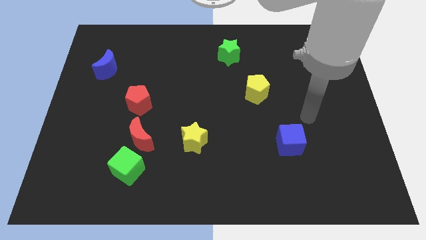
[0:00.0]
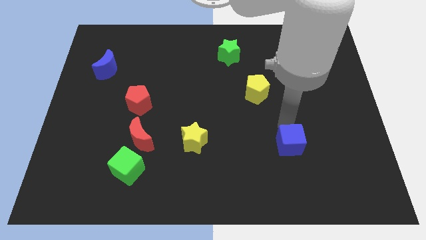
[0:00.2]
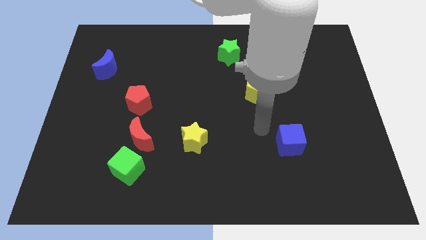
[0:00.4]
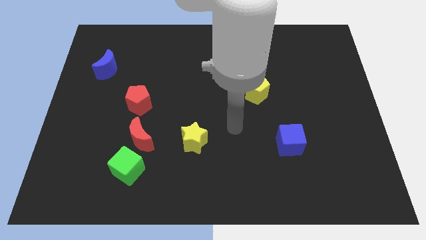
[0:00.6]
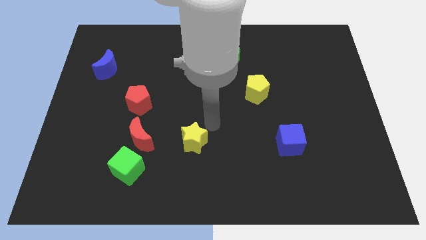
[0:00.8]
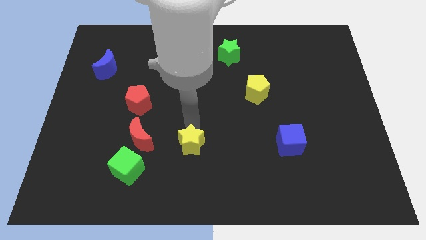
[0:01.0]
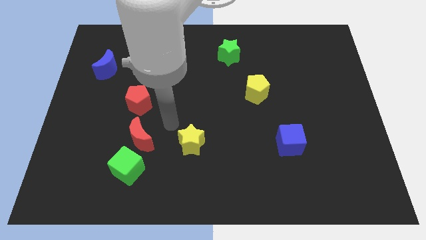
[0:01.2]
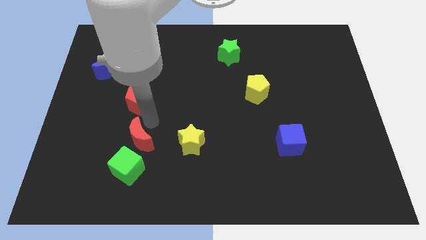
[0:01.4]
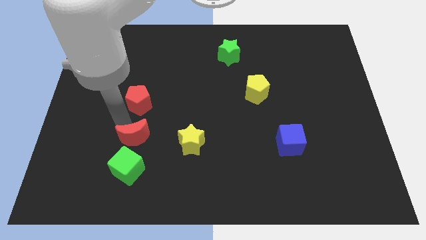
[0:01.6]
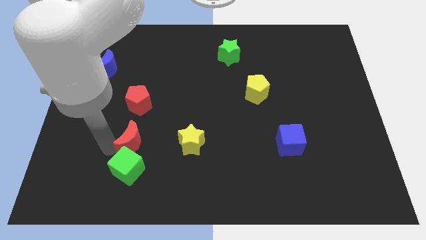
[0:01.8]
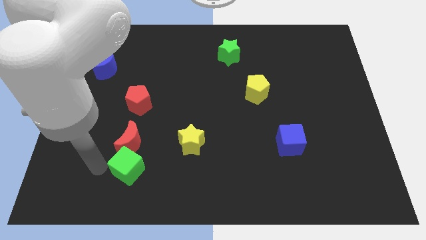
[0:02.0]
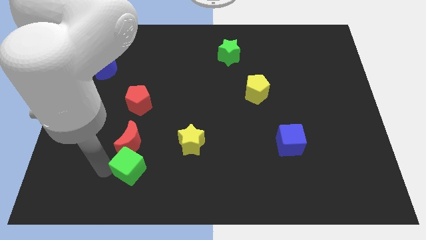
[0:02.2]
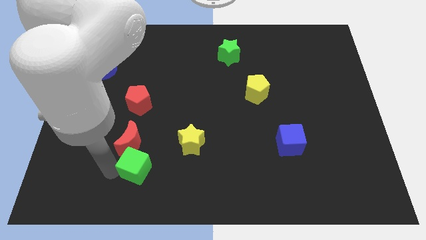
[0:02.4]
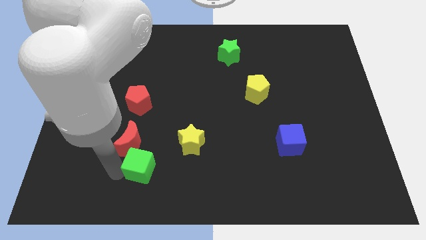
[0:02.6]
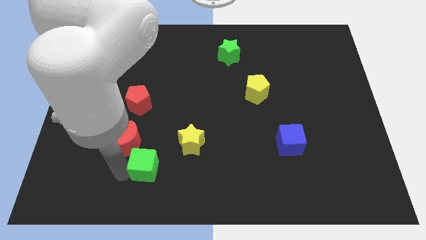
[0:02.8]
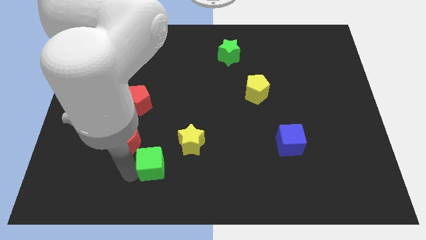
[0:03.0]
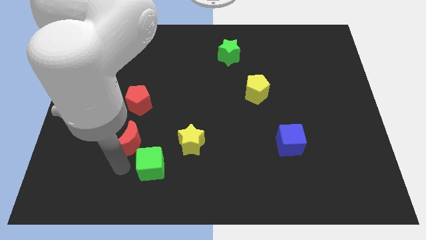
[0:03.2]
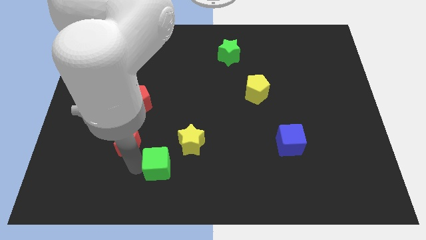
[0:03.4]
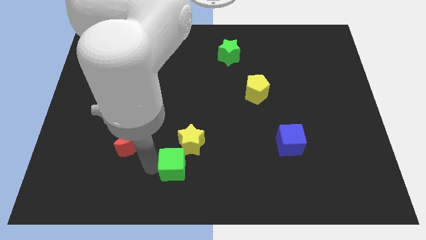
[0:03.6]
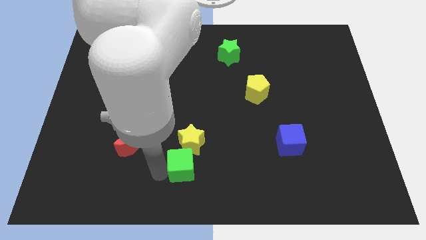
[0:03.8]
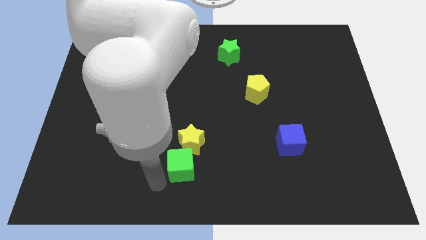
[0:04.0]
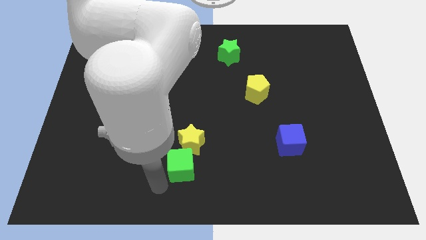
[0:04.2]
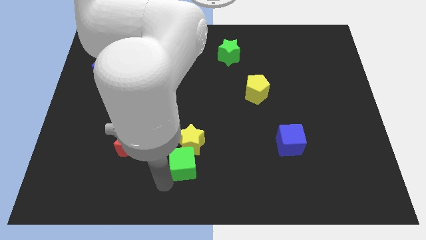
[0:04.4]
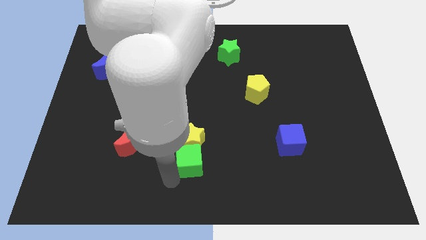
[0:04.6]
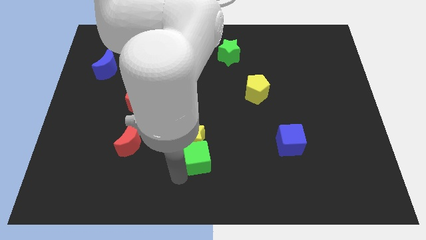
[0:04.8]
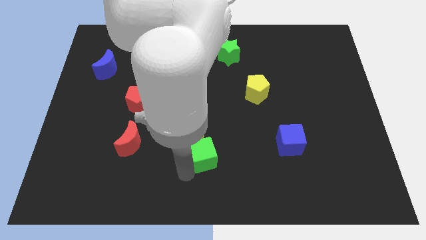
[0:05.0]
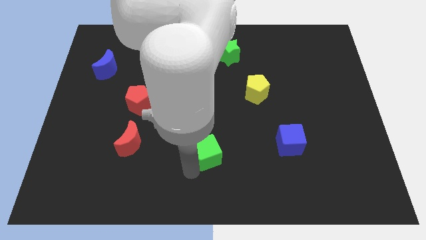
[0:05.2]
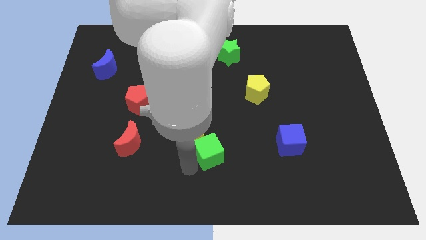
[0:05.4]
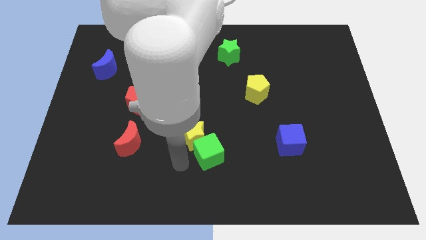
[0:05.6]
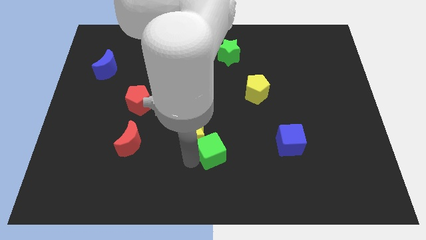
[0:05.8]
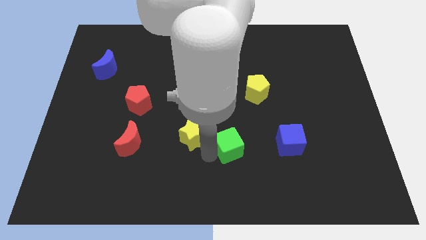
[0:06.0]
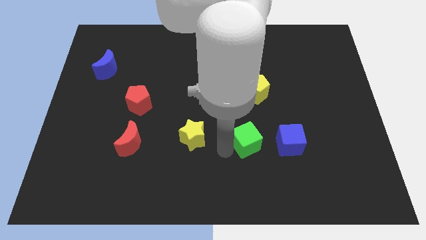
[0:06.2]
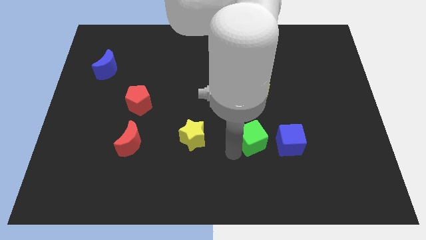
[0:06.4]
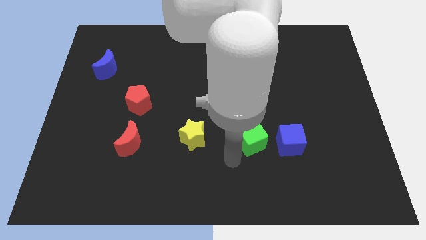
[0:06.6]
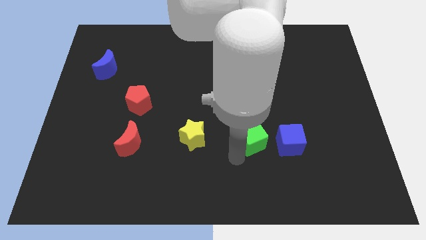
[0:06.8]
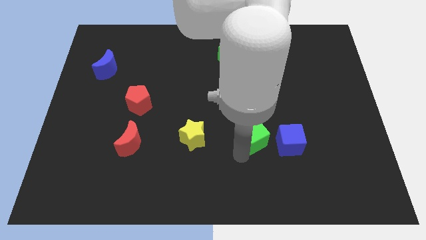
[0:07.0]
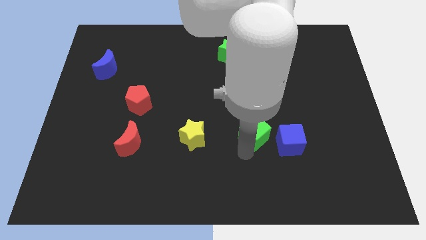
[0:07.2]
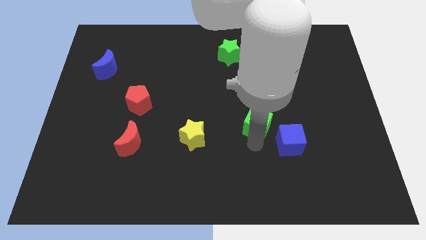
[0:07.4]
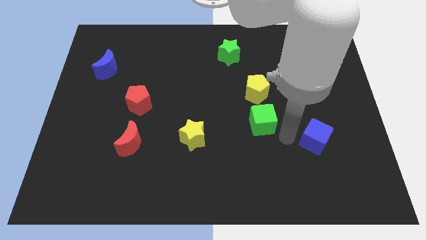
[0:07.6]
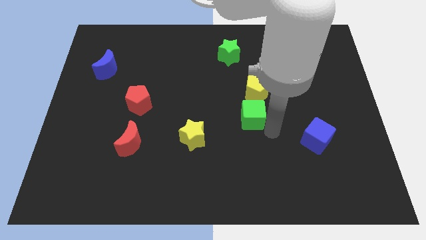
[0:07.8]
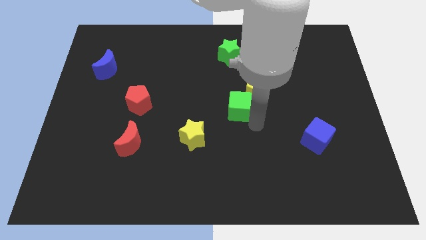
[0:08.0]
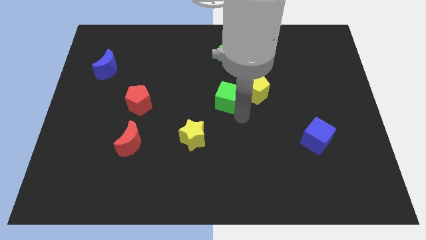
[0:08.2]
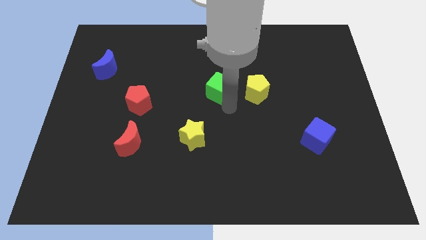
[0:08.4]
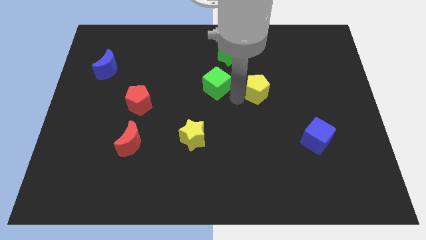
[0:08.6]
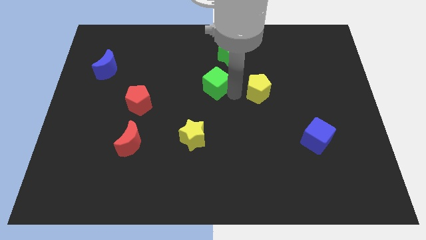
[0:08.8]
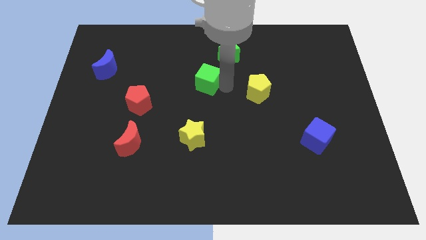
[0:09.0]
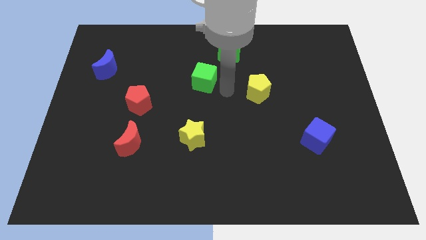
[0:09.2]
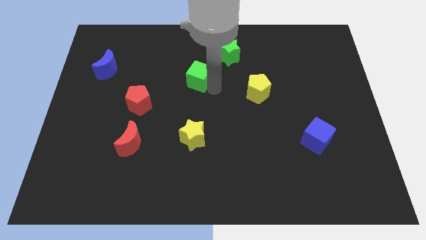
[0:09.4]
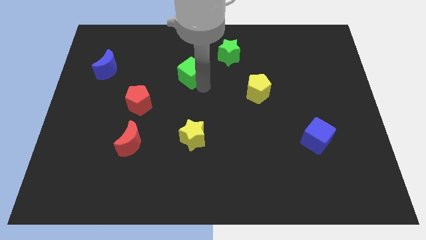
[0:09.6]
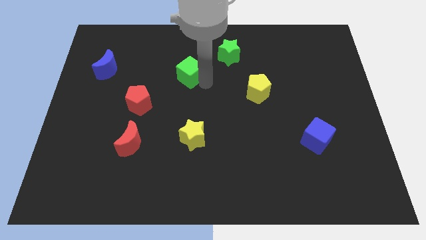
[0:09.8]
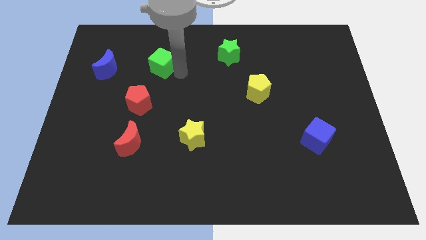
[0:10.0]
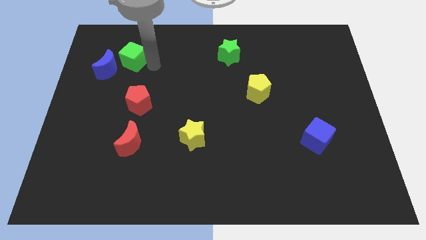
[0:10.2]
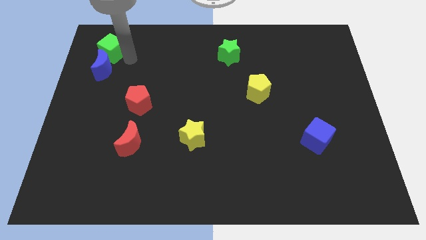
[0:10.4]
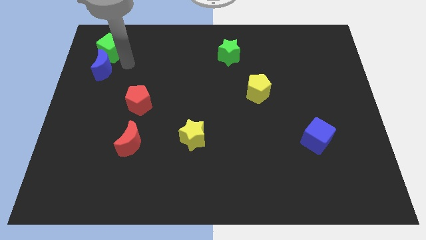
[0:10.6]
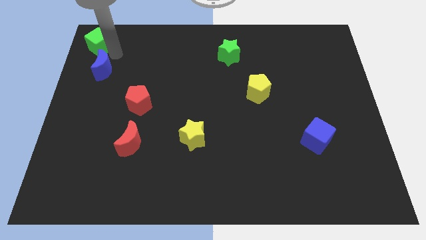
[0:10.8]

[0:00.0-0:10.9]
put the green cube to the upper left corner
